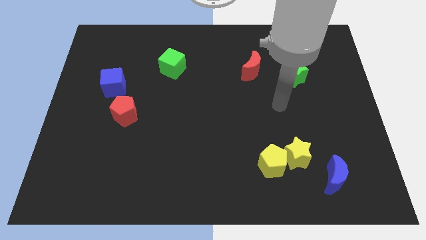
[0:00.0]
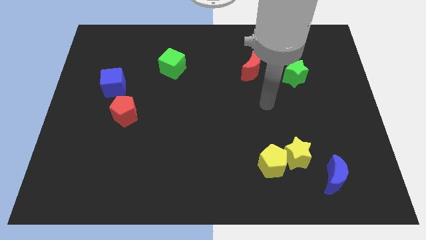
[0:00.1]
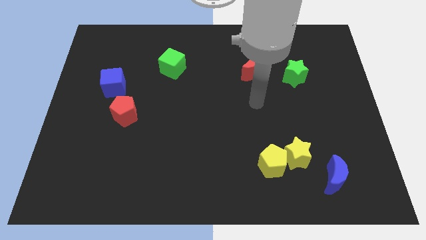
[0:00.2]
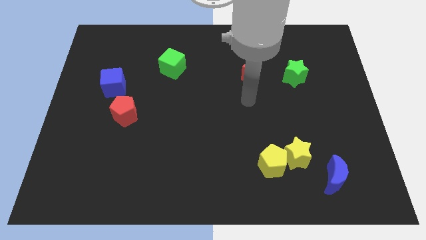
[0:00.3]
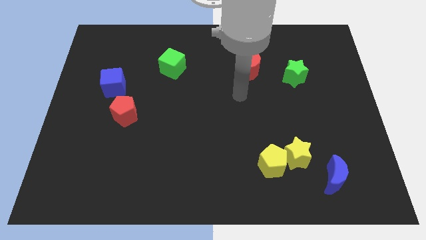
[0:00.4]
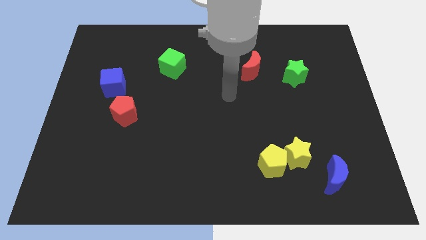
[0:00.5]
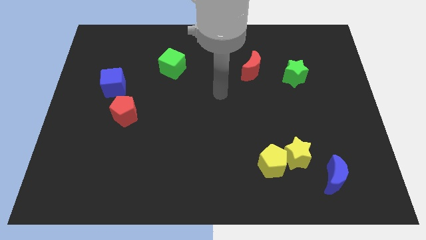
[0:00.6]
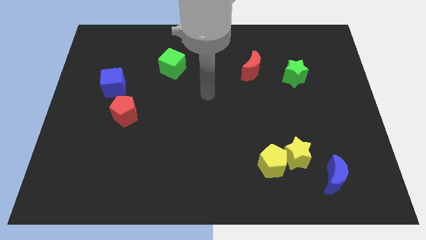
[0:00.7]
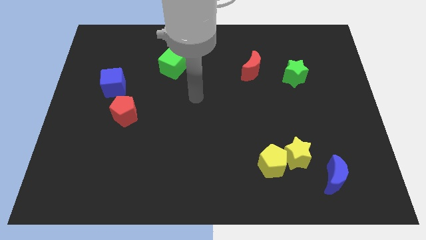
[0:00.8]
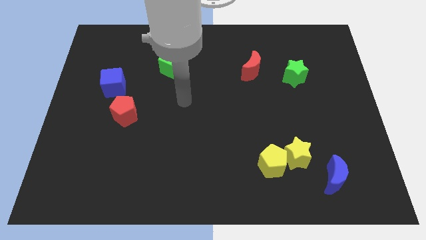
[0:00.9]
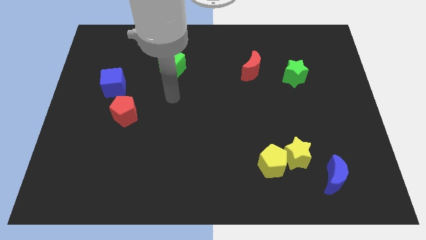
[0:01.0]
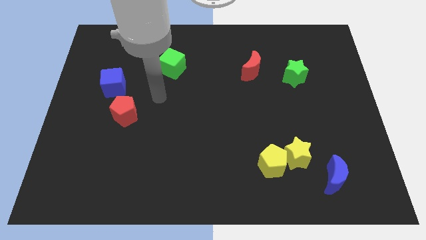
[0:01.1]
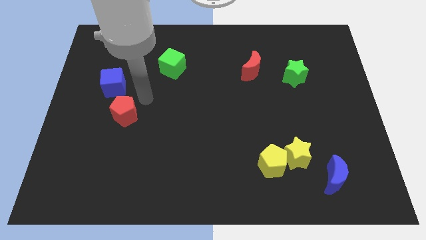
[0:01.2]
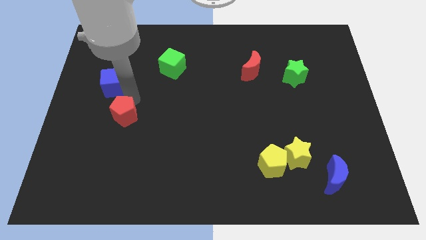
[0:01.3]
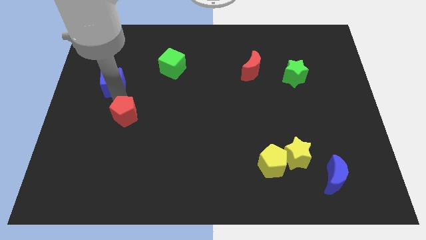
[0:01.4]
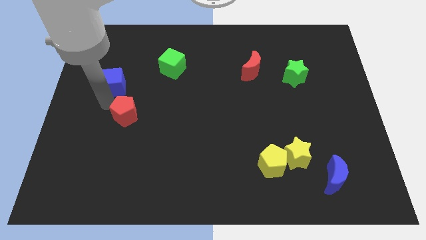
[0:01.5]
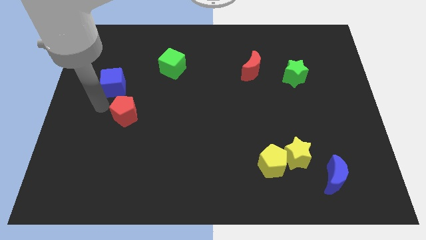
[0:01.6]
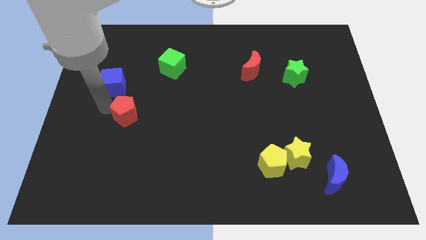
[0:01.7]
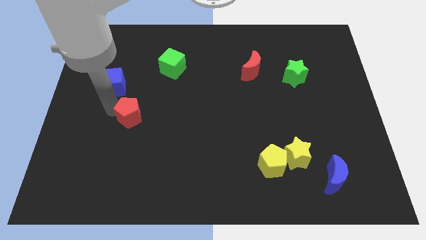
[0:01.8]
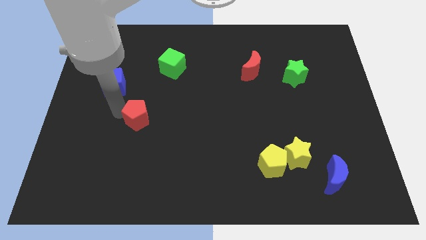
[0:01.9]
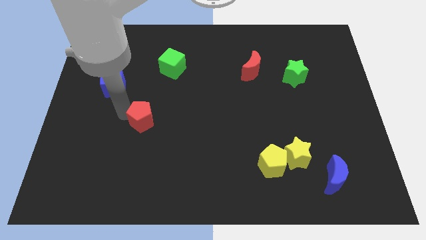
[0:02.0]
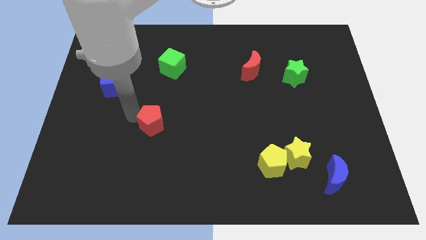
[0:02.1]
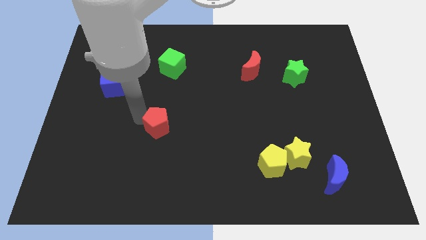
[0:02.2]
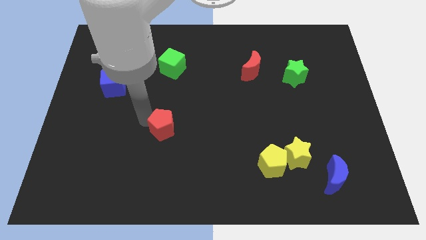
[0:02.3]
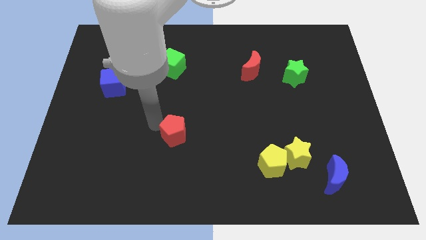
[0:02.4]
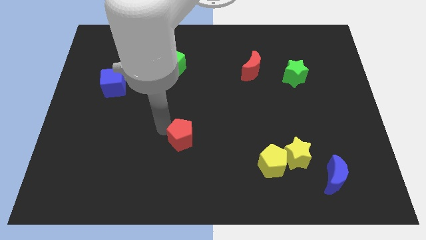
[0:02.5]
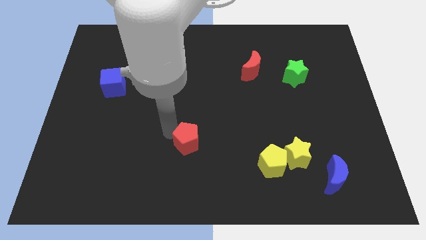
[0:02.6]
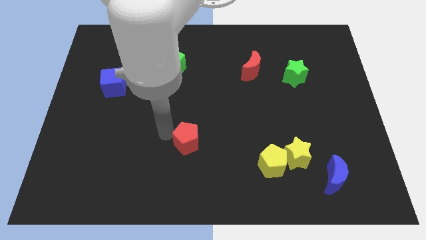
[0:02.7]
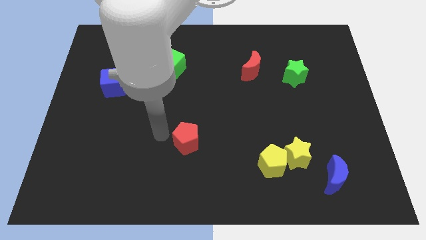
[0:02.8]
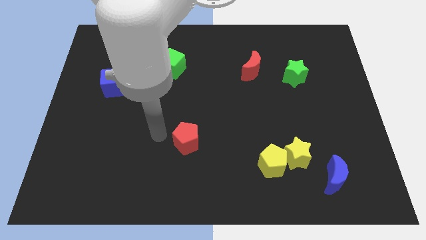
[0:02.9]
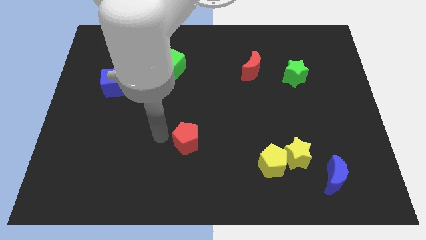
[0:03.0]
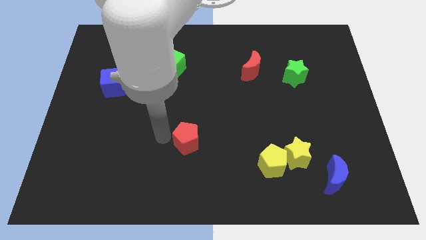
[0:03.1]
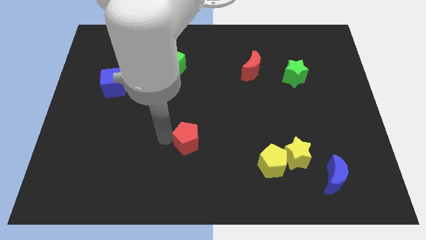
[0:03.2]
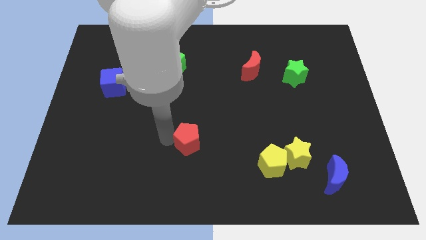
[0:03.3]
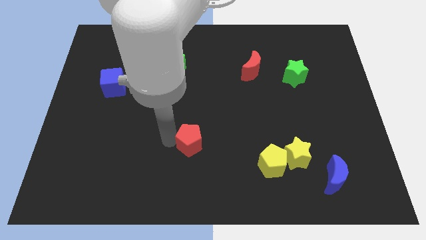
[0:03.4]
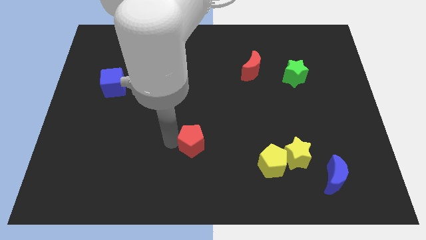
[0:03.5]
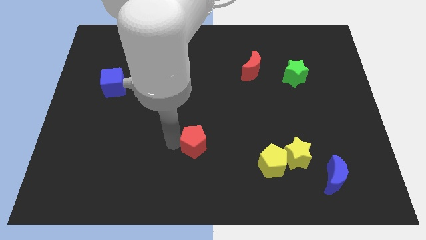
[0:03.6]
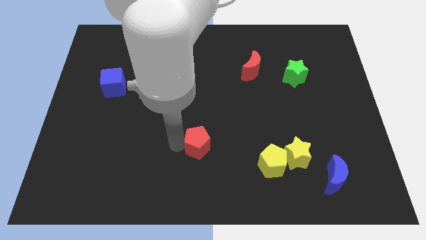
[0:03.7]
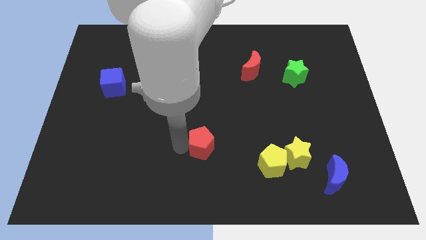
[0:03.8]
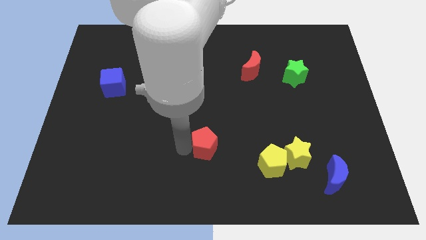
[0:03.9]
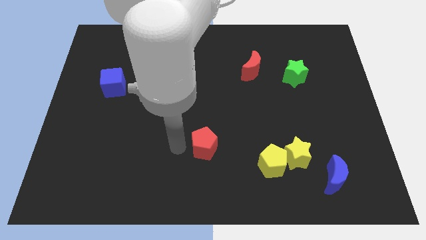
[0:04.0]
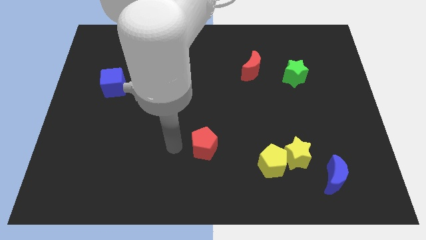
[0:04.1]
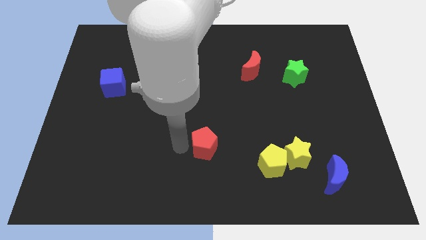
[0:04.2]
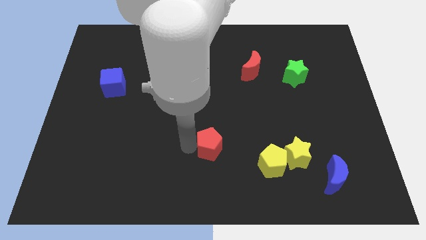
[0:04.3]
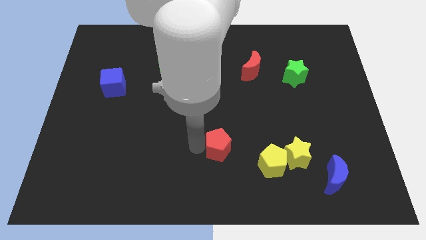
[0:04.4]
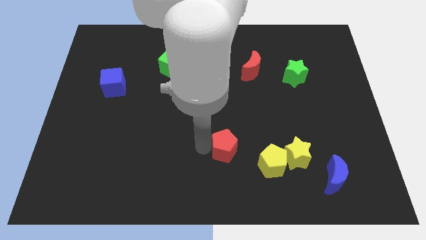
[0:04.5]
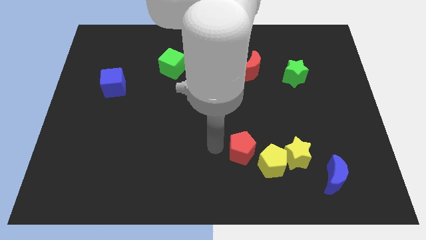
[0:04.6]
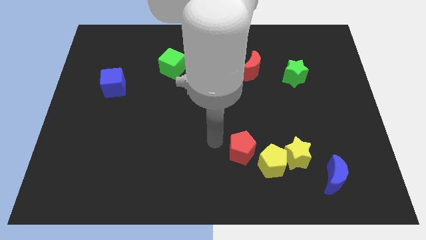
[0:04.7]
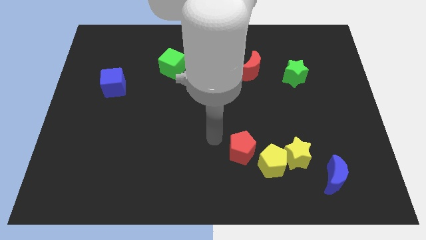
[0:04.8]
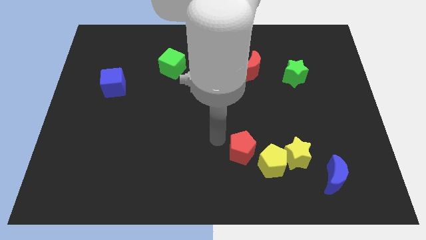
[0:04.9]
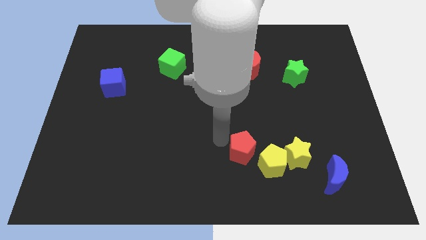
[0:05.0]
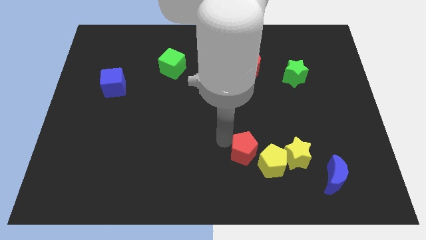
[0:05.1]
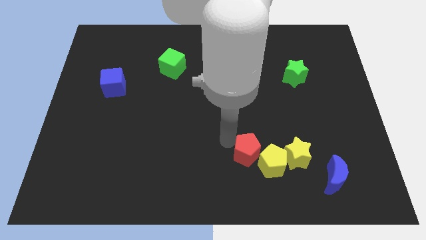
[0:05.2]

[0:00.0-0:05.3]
push the red pentagon towards the yellow pentagon

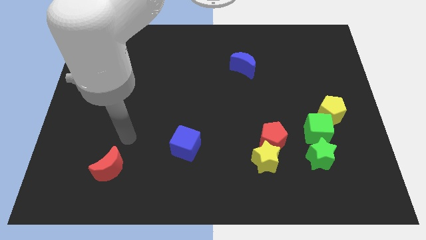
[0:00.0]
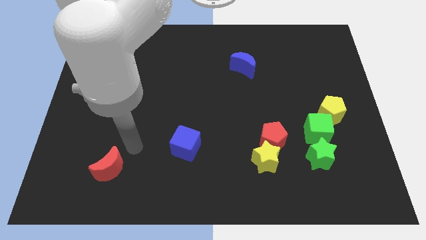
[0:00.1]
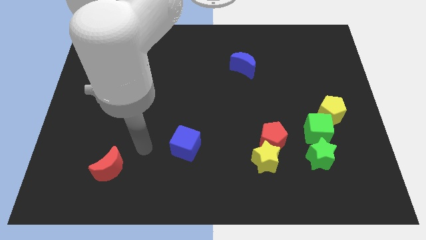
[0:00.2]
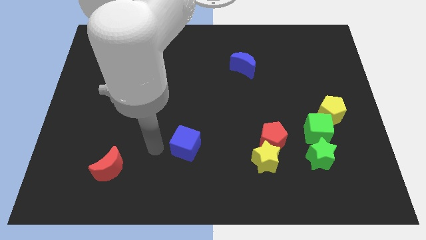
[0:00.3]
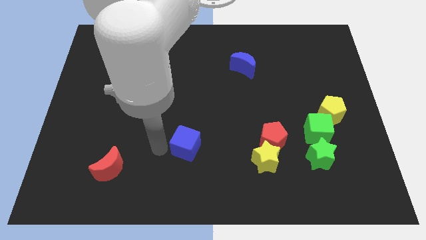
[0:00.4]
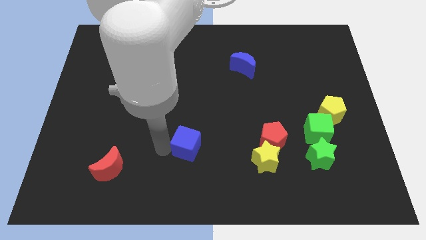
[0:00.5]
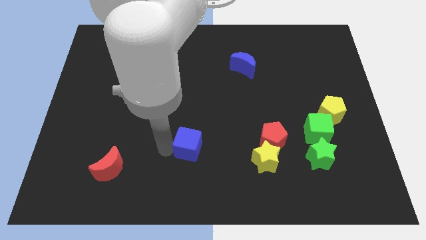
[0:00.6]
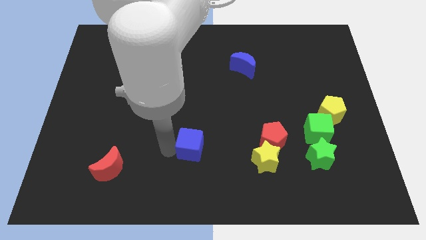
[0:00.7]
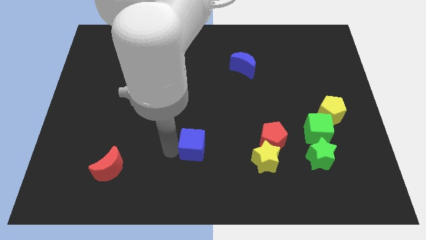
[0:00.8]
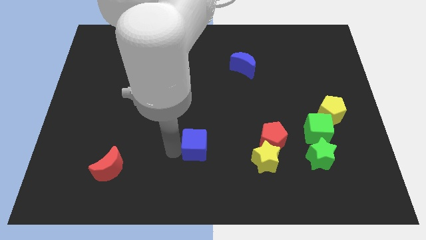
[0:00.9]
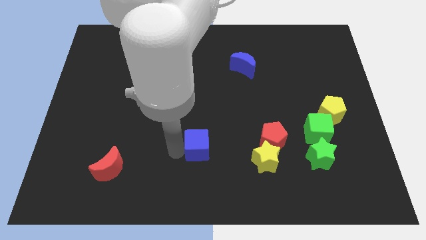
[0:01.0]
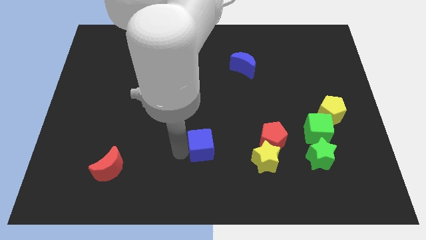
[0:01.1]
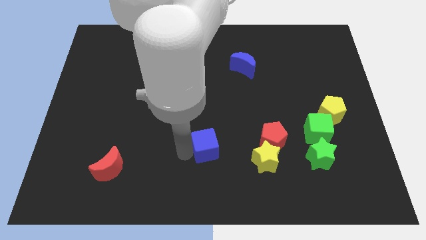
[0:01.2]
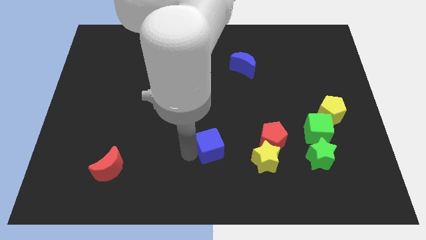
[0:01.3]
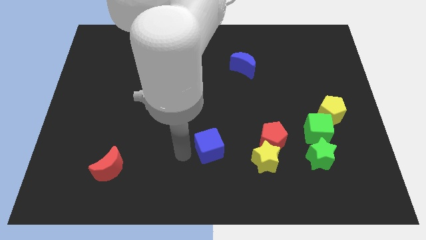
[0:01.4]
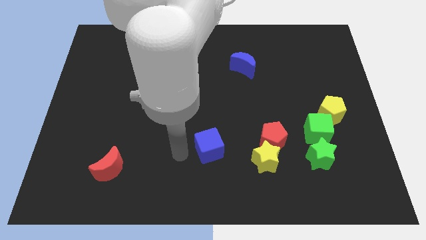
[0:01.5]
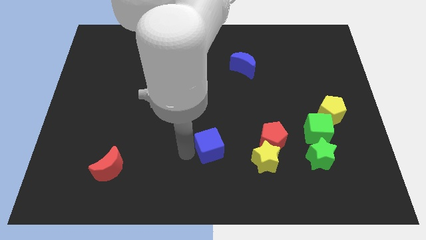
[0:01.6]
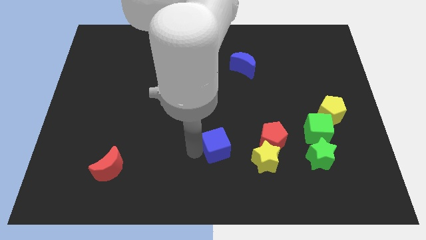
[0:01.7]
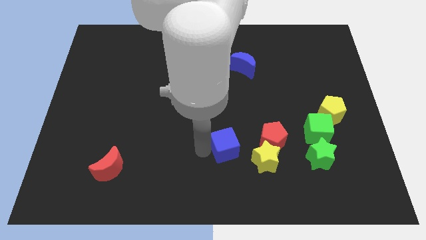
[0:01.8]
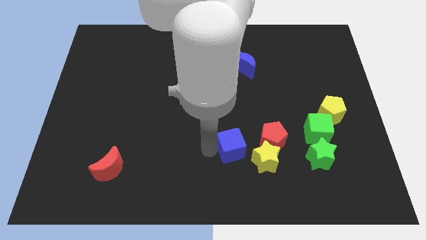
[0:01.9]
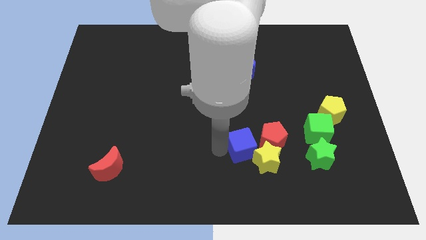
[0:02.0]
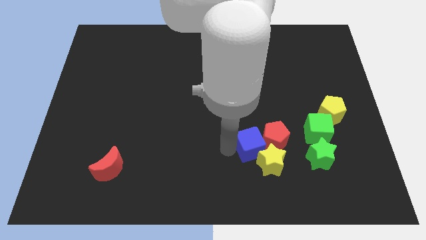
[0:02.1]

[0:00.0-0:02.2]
push the blue cube to the red pentagon

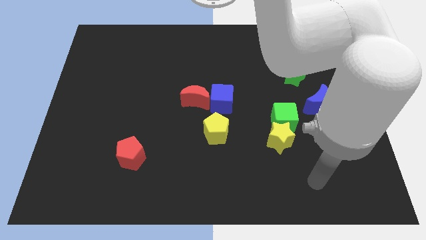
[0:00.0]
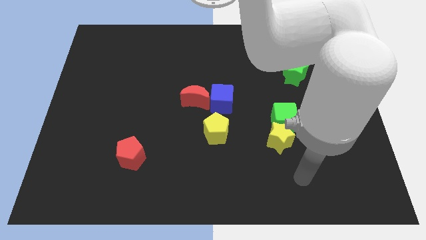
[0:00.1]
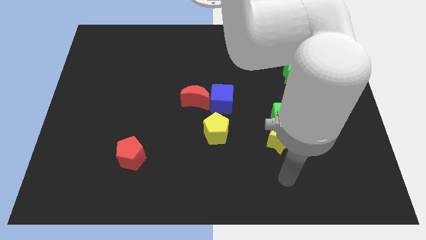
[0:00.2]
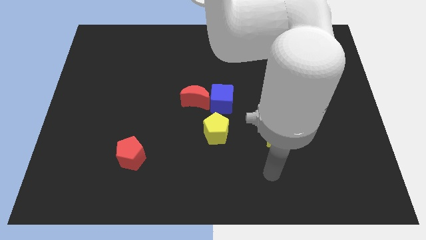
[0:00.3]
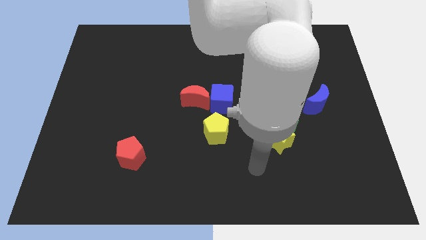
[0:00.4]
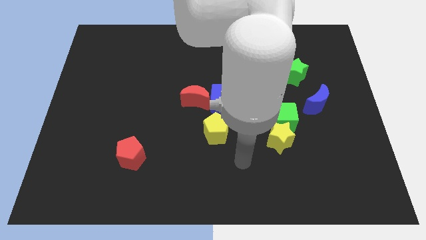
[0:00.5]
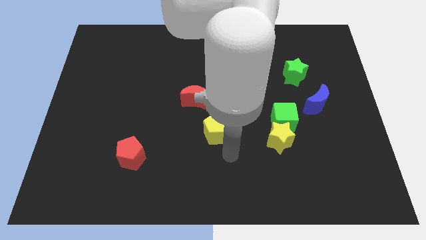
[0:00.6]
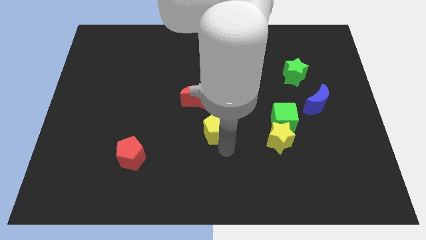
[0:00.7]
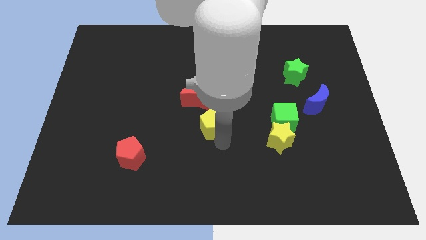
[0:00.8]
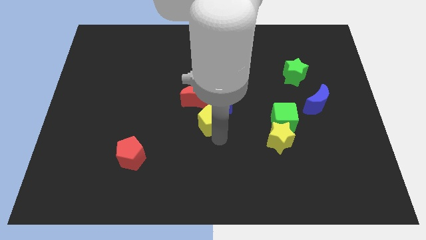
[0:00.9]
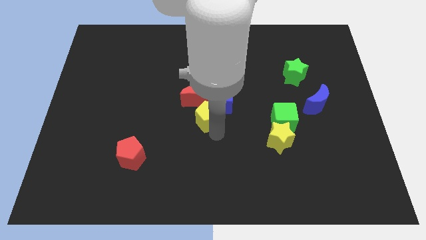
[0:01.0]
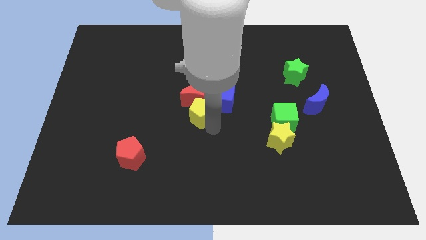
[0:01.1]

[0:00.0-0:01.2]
slide the yellow pentagon to the red moon
